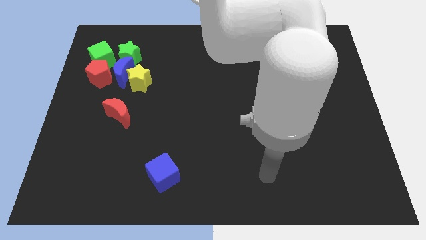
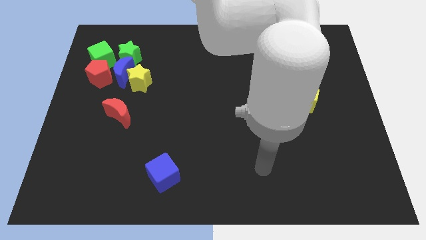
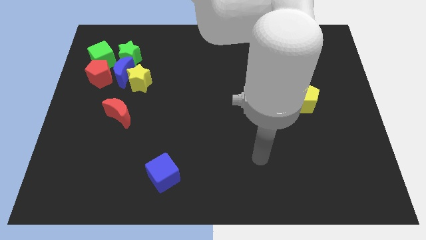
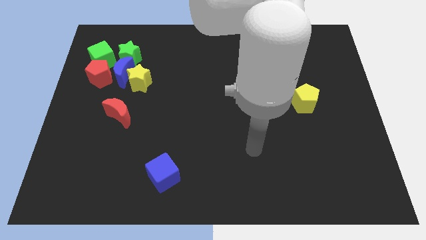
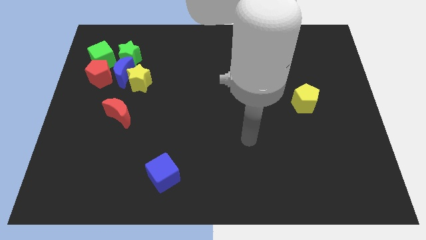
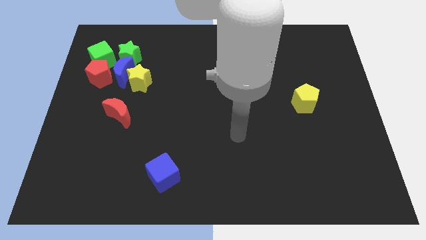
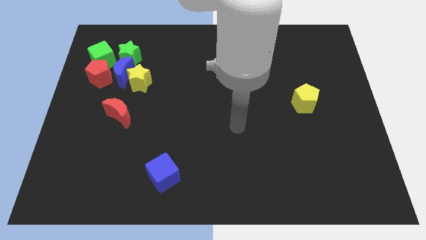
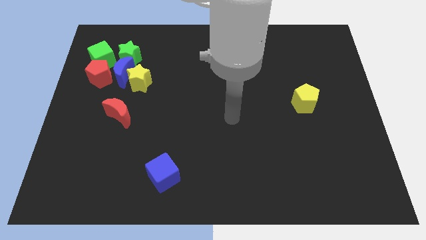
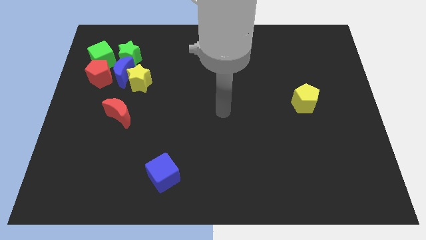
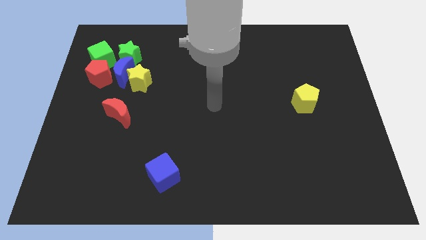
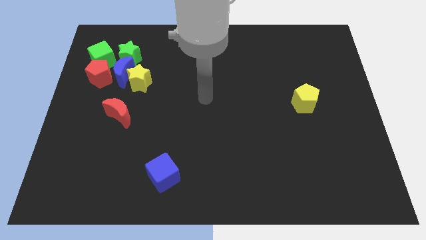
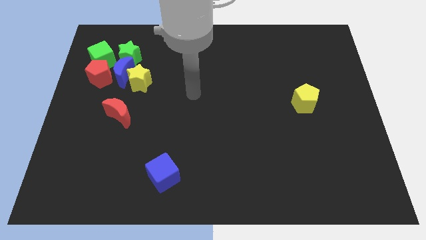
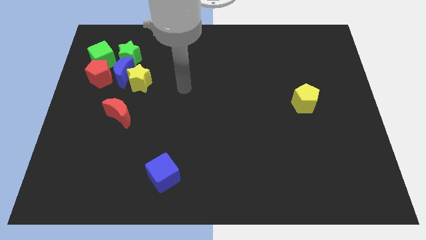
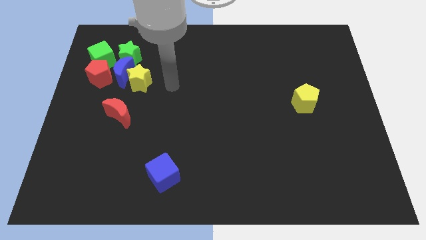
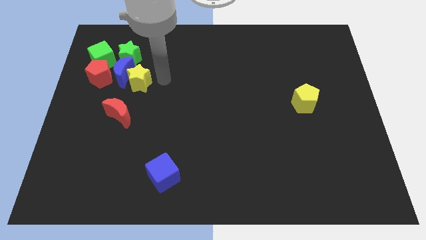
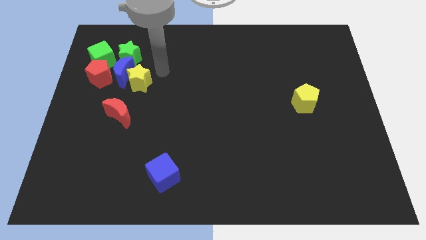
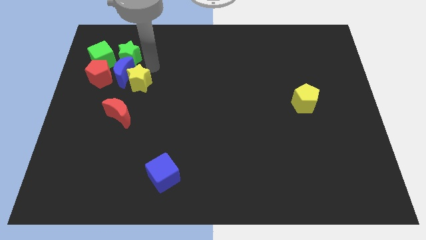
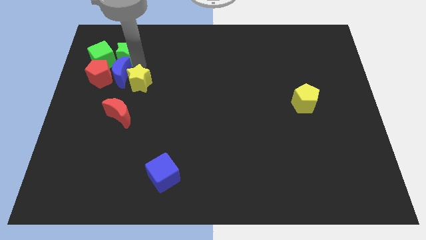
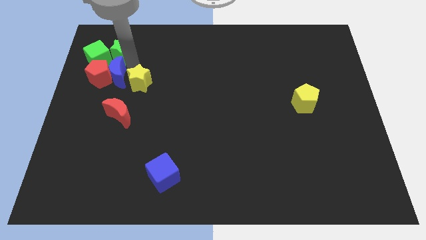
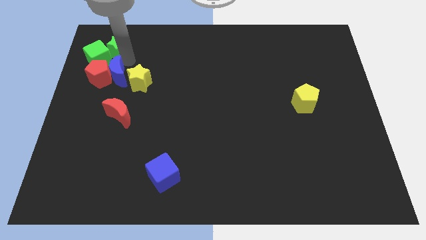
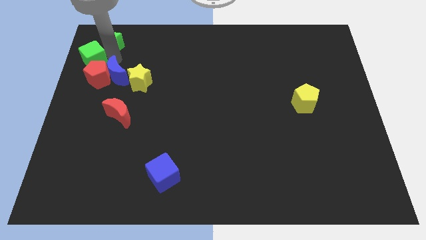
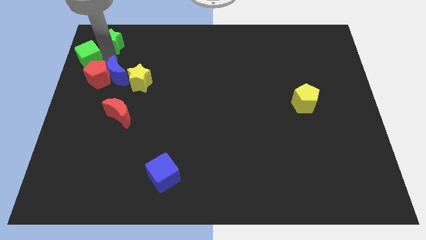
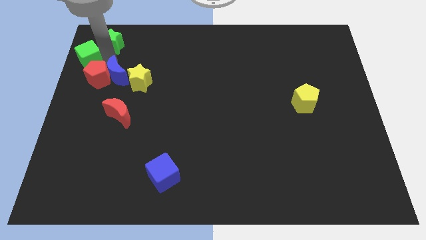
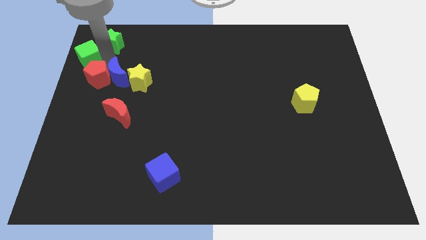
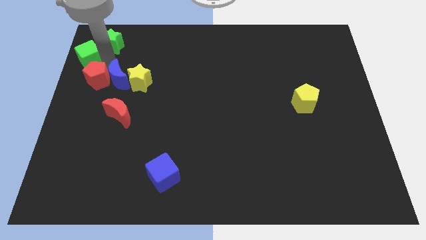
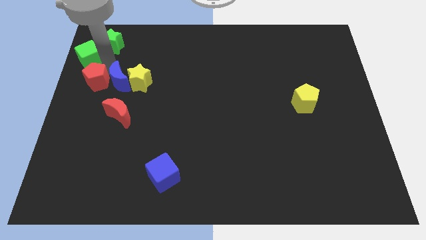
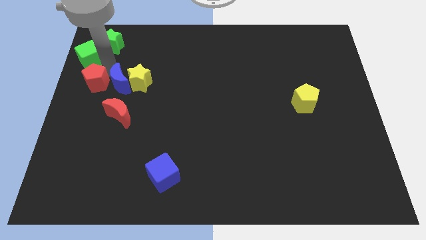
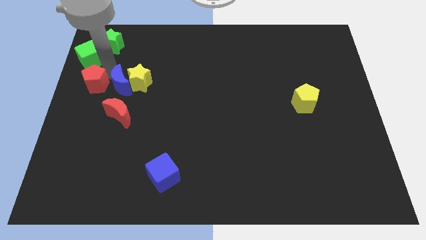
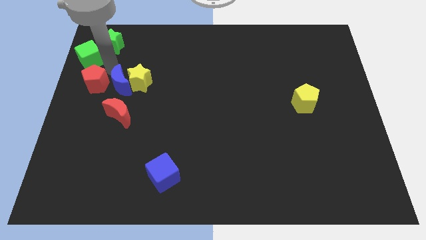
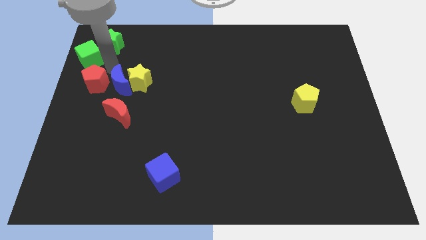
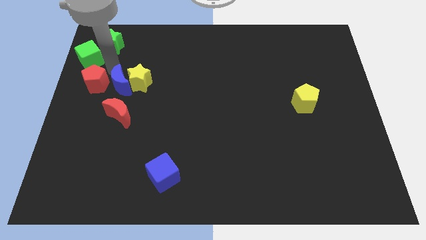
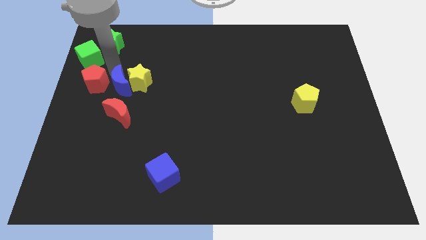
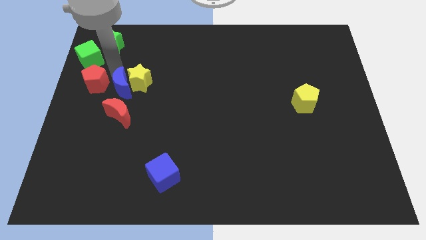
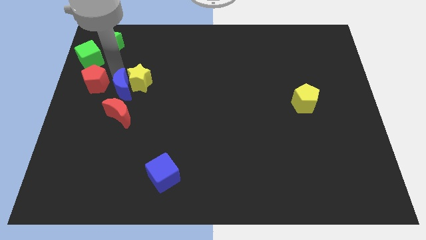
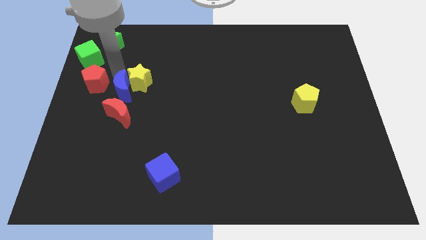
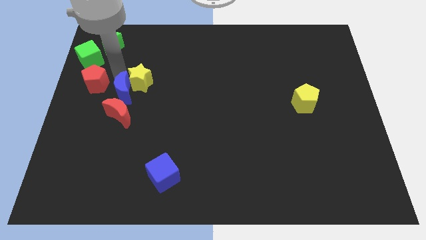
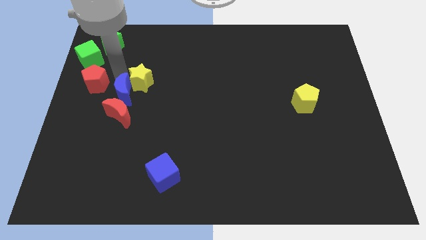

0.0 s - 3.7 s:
move the blue moon away from the clump

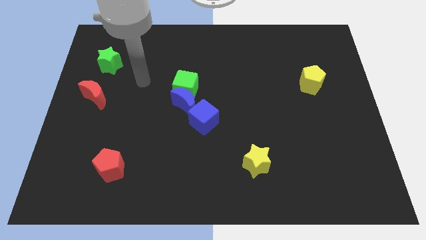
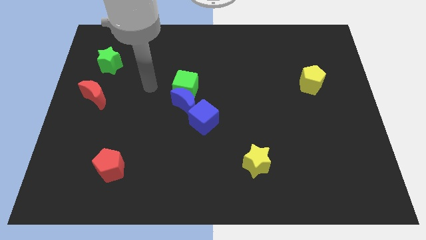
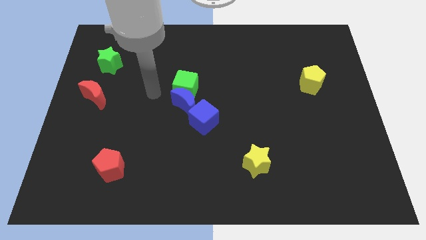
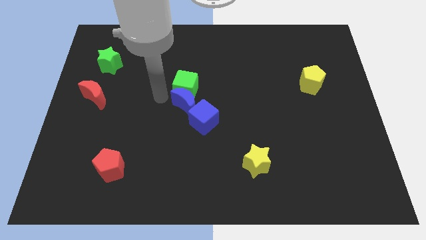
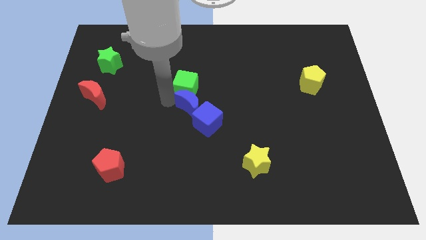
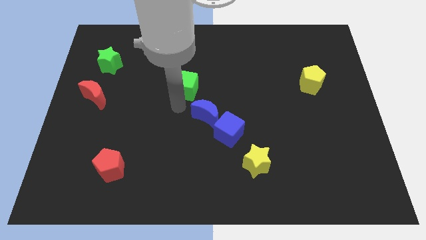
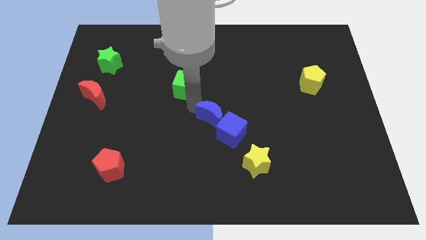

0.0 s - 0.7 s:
move the green cube away from the blue moon

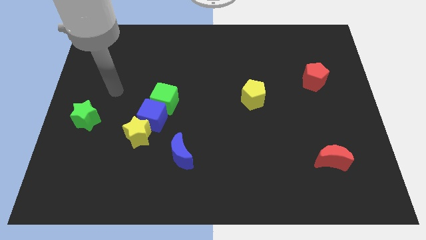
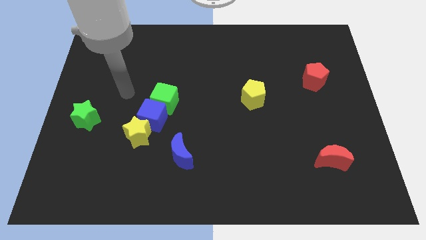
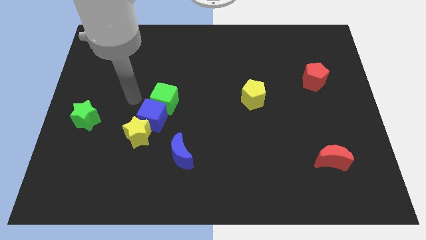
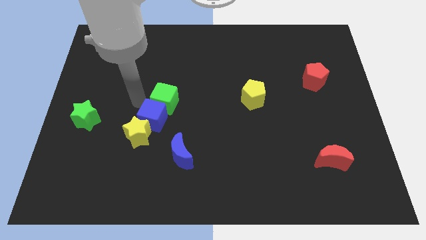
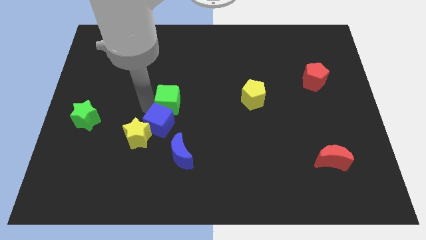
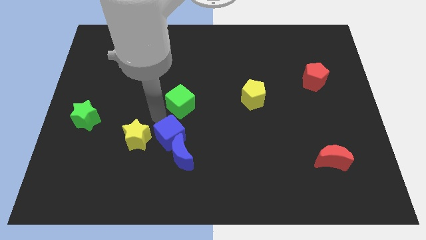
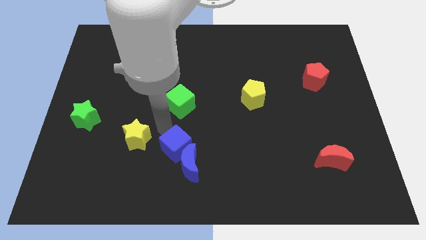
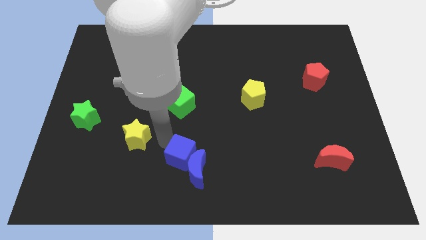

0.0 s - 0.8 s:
pull the yellow star apart from the blue cube

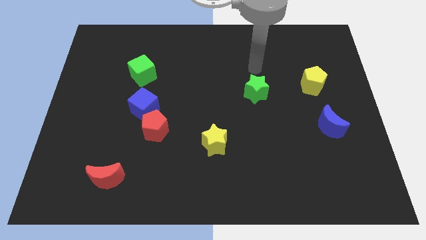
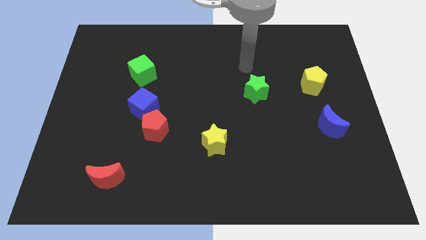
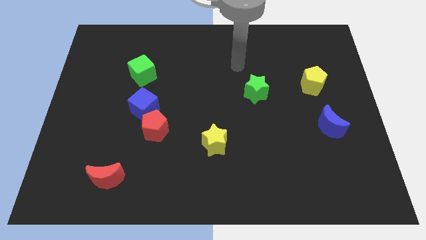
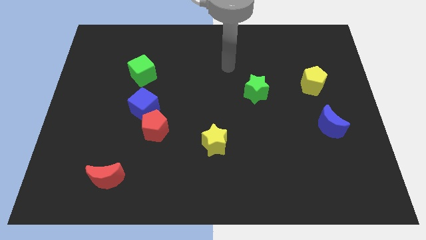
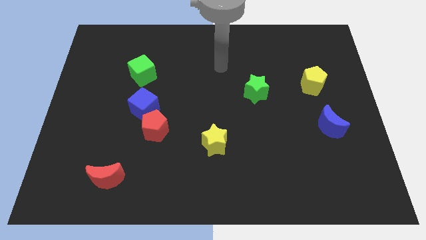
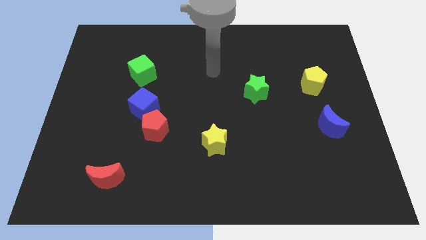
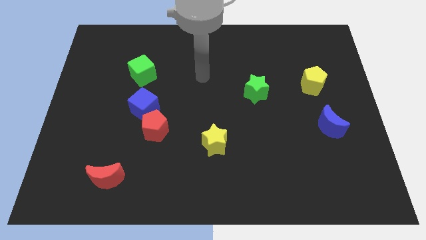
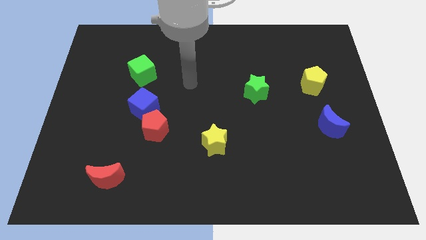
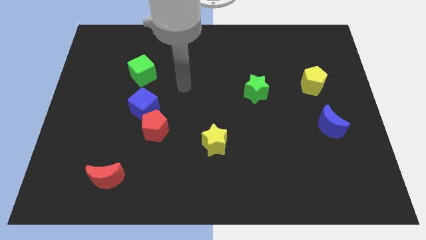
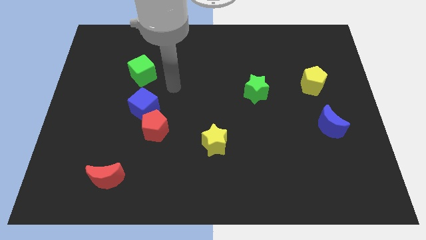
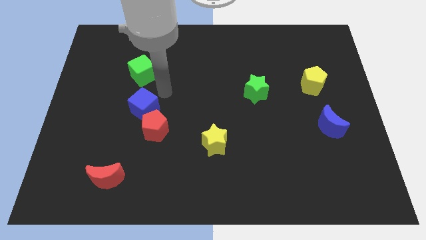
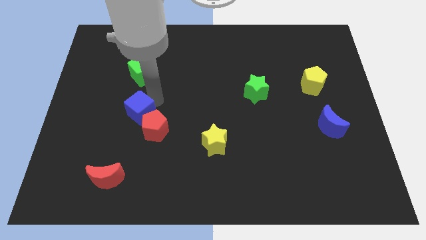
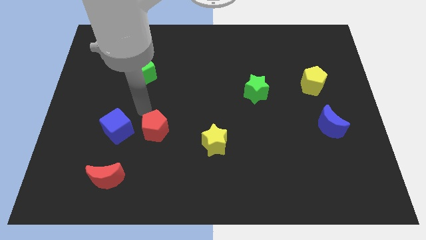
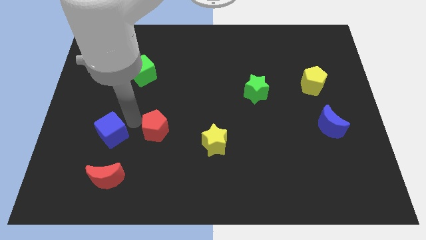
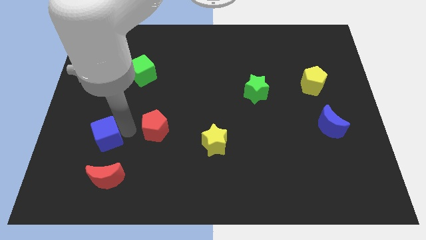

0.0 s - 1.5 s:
move the red pentagon away from the blue cube

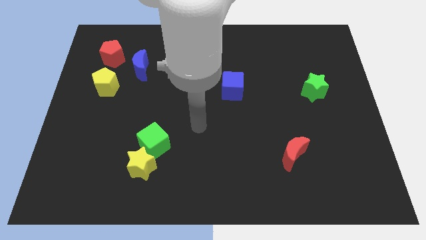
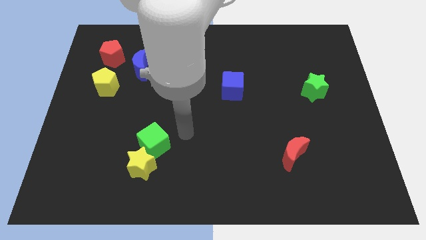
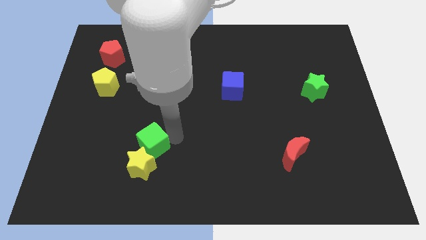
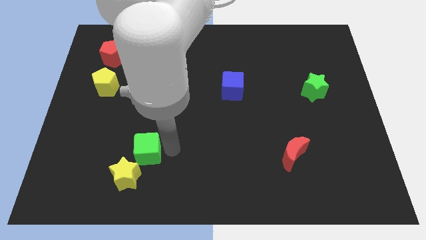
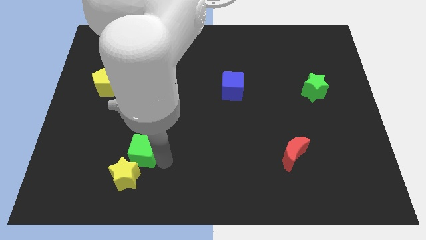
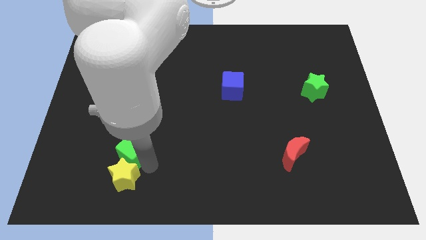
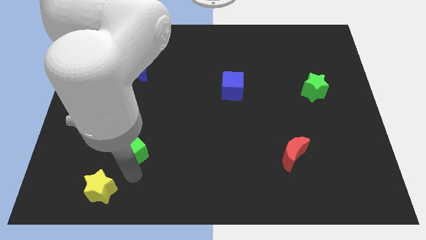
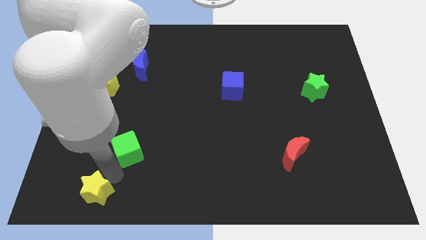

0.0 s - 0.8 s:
separate the green cube from the yellow star

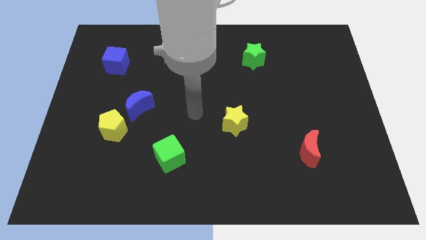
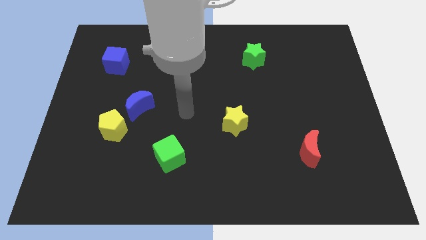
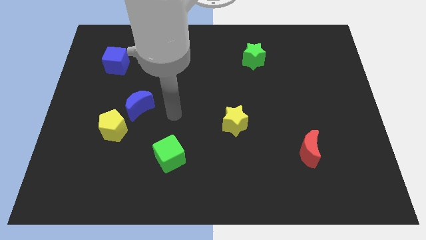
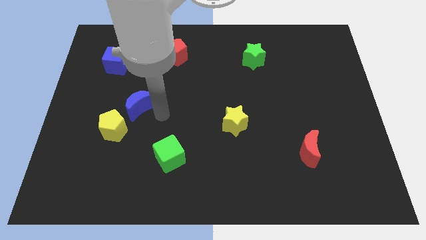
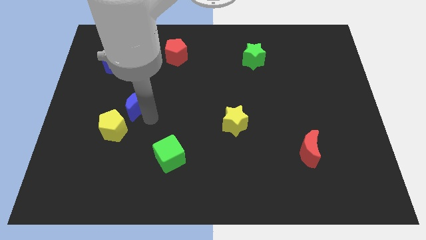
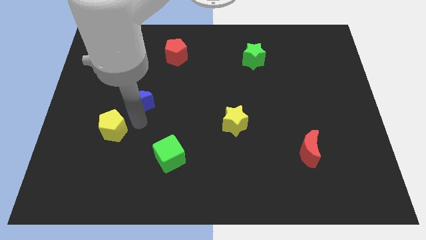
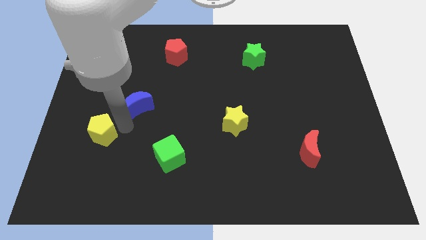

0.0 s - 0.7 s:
move the blue moon away from the yellow pentagon

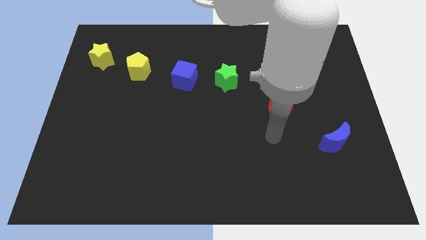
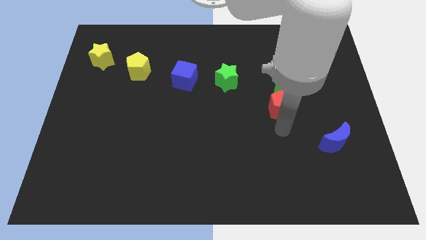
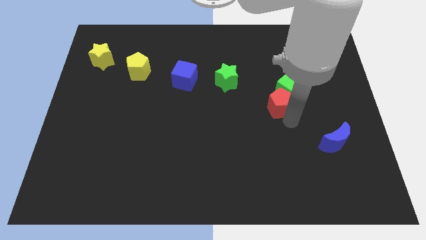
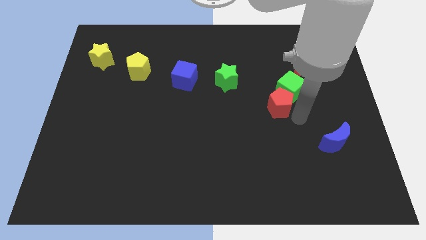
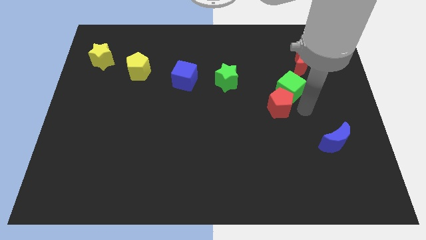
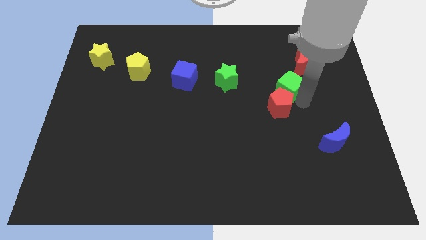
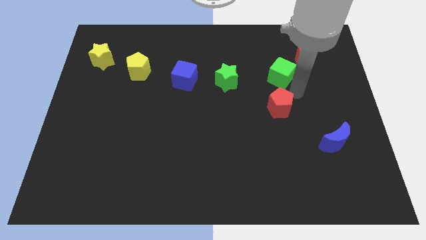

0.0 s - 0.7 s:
pull the red pentagon apart from the green cube

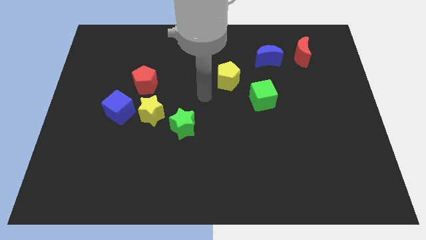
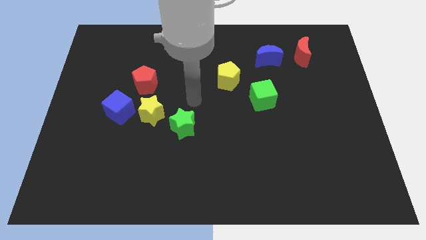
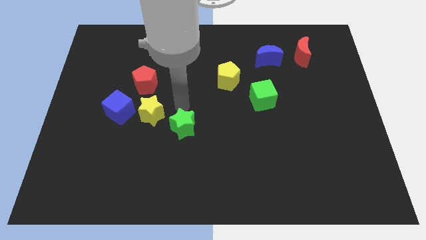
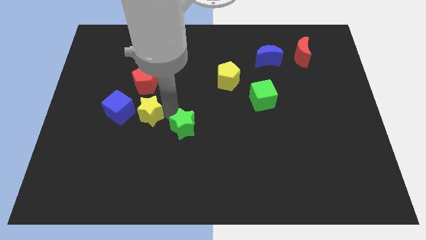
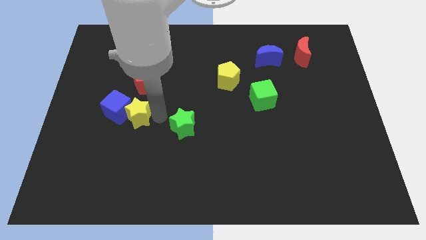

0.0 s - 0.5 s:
move the green star away from the yellow star
